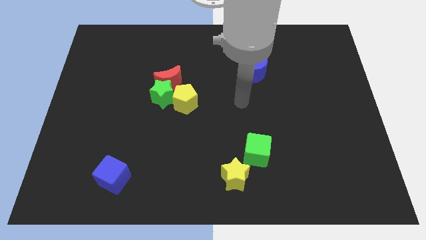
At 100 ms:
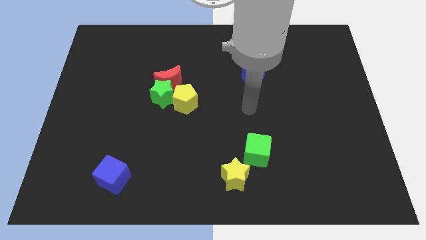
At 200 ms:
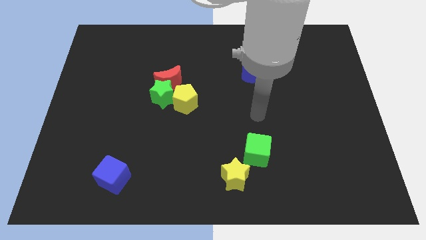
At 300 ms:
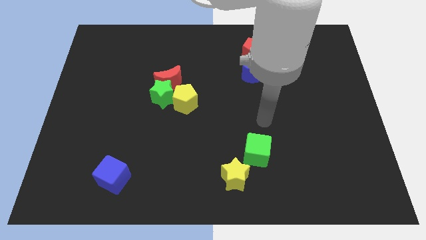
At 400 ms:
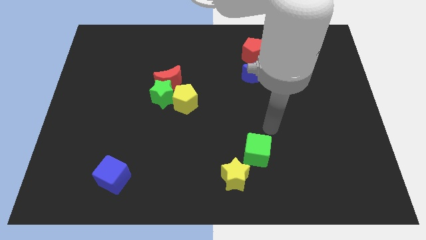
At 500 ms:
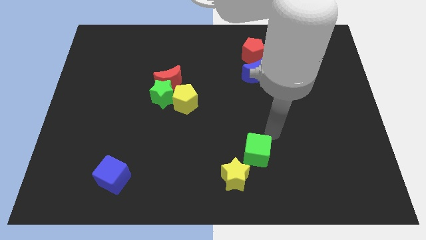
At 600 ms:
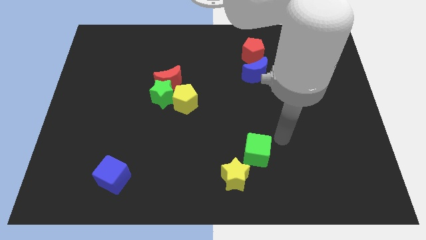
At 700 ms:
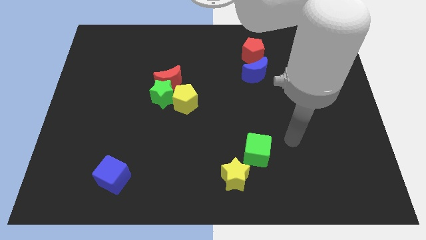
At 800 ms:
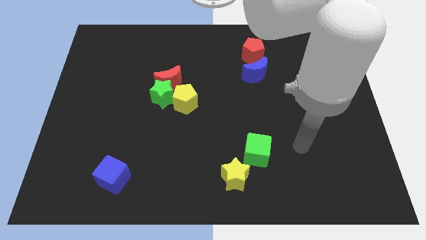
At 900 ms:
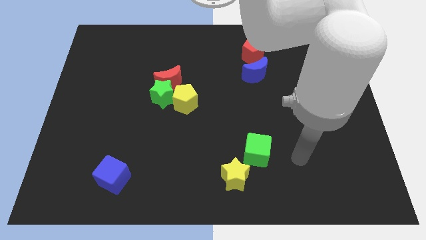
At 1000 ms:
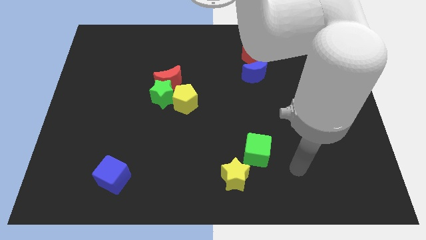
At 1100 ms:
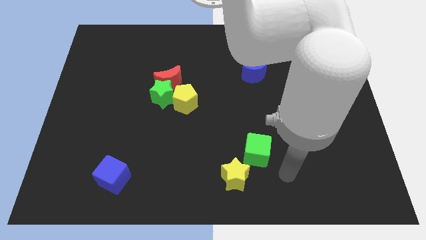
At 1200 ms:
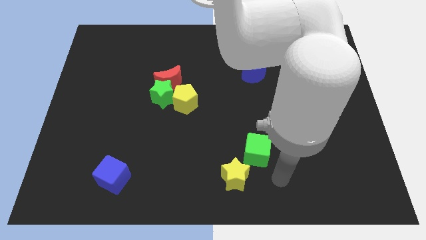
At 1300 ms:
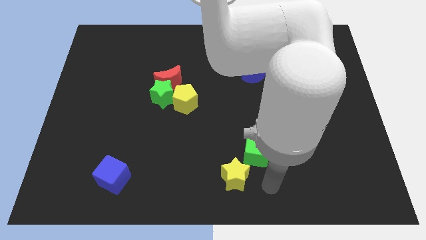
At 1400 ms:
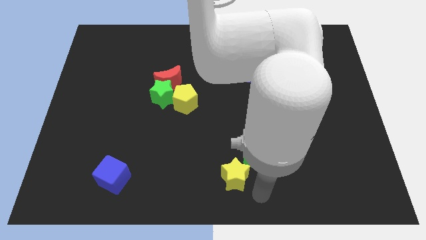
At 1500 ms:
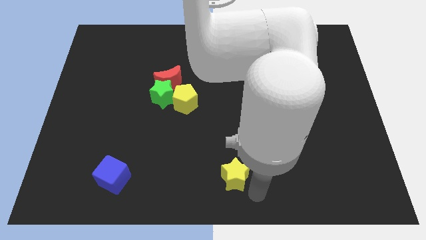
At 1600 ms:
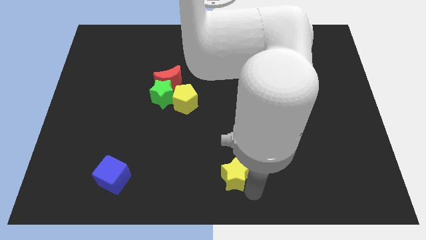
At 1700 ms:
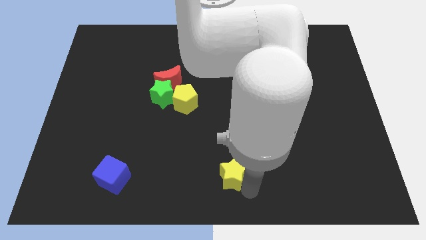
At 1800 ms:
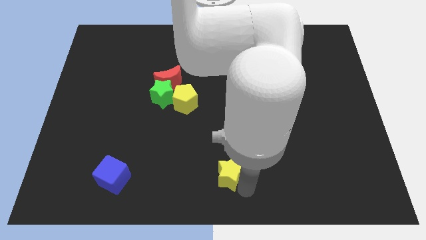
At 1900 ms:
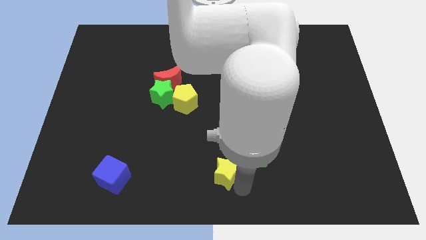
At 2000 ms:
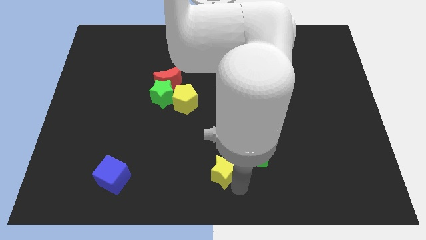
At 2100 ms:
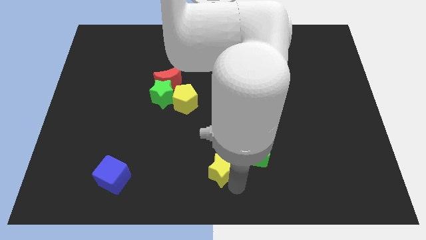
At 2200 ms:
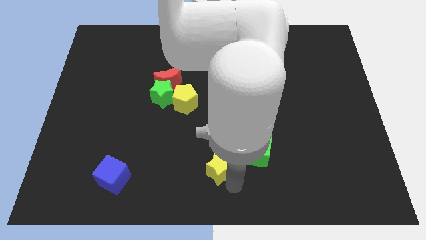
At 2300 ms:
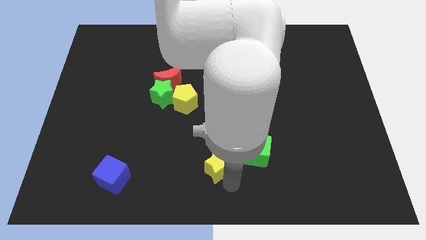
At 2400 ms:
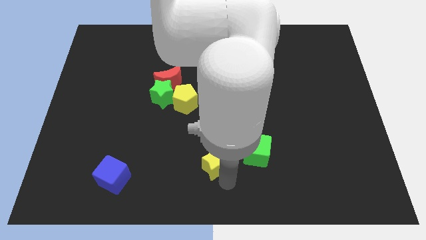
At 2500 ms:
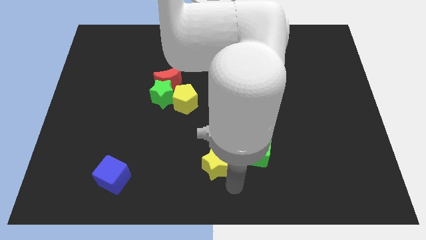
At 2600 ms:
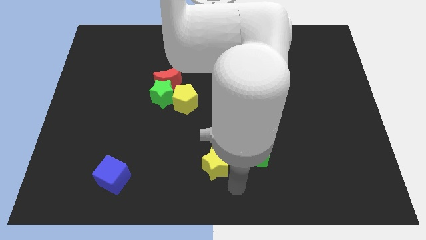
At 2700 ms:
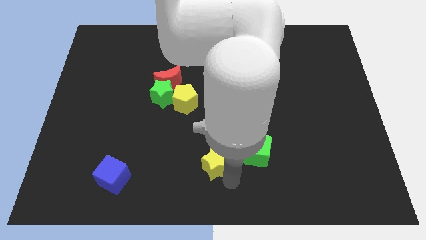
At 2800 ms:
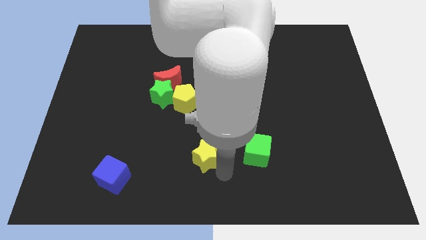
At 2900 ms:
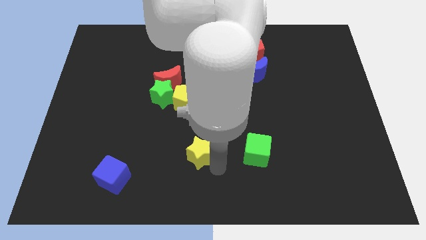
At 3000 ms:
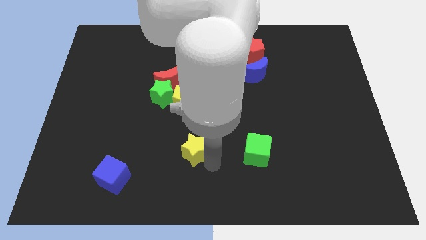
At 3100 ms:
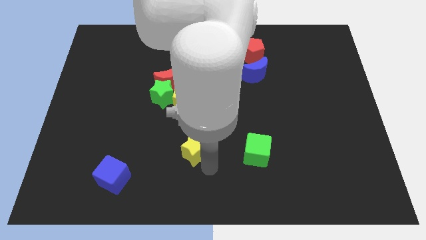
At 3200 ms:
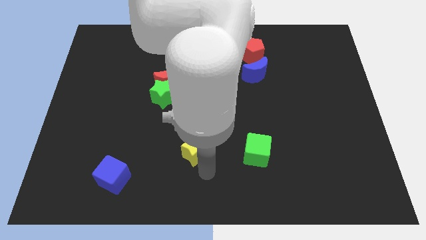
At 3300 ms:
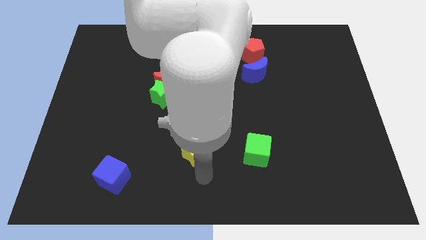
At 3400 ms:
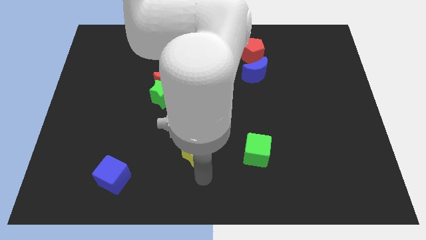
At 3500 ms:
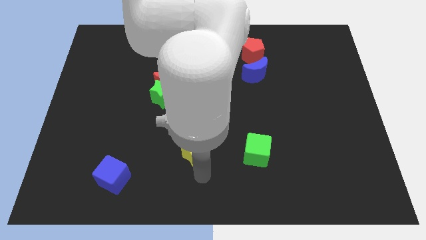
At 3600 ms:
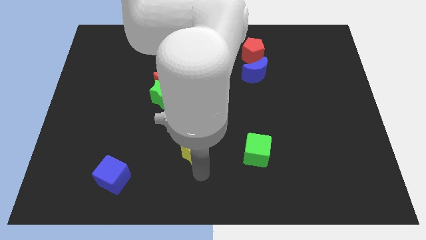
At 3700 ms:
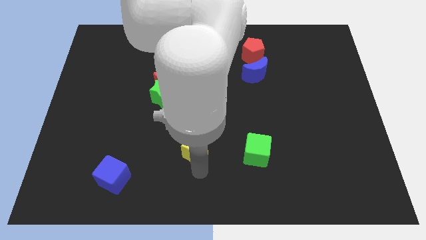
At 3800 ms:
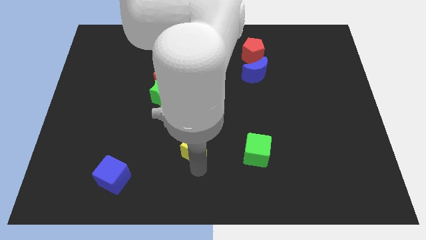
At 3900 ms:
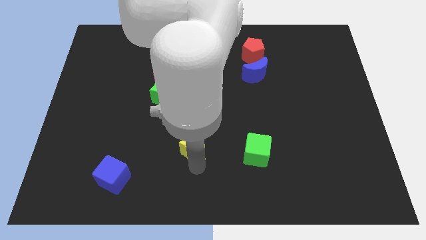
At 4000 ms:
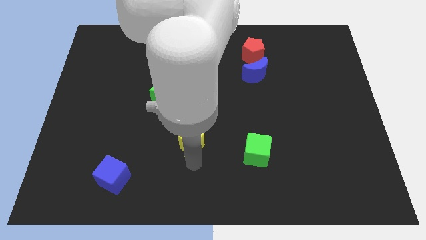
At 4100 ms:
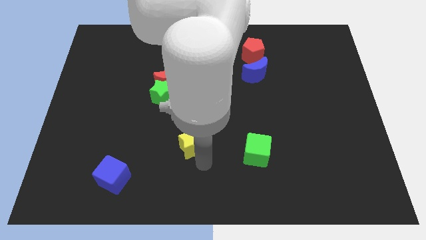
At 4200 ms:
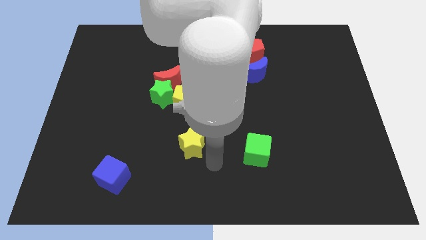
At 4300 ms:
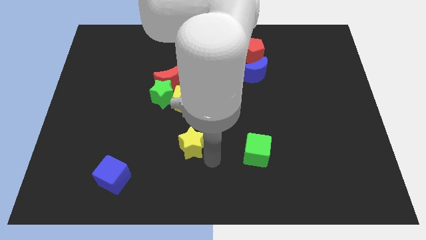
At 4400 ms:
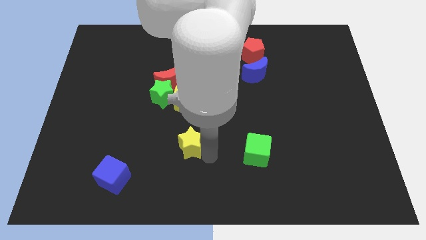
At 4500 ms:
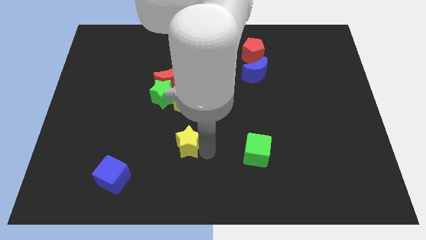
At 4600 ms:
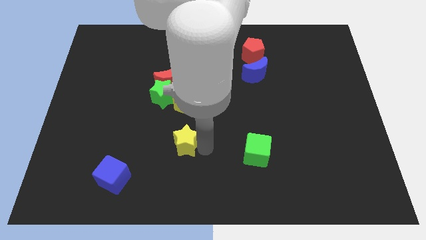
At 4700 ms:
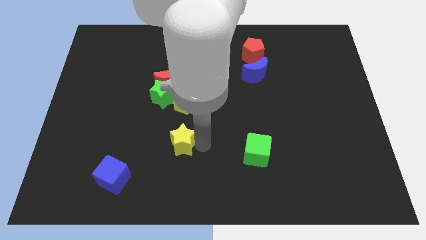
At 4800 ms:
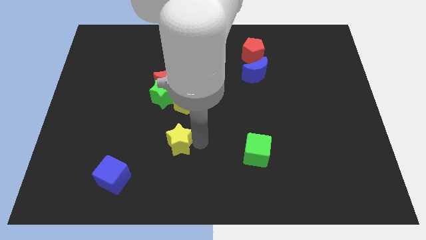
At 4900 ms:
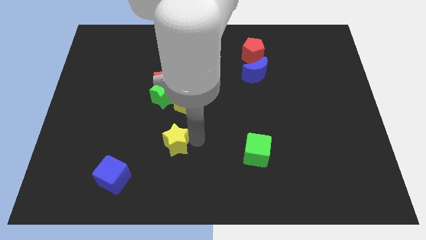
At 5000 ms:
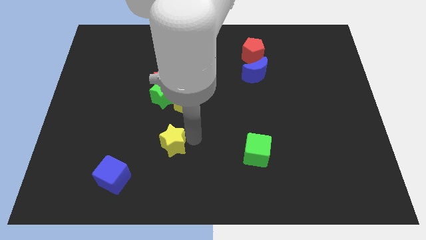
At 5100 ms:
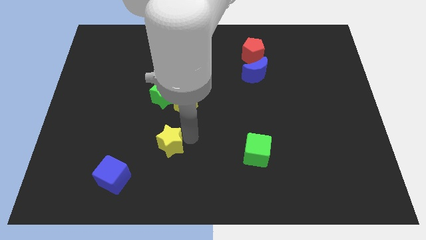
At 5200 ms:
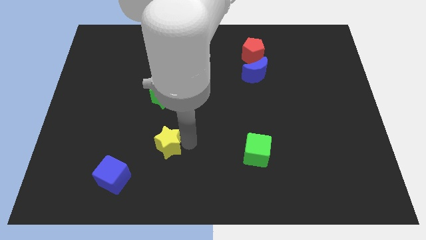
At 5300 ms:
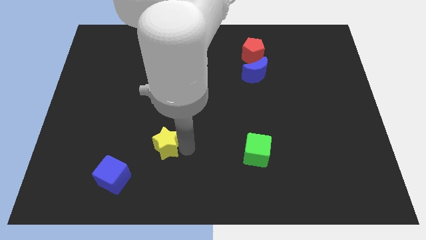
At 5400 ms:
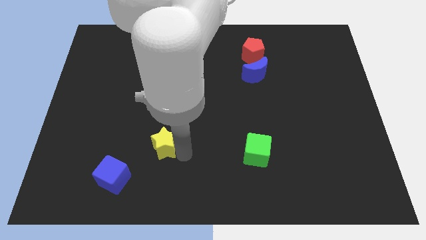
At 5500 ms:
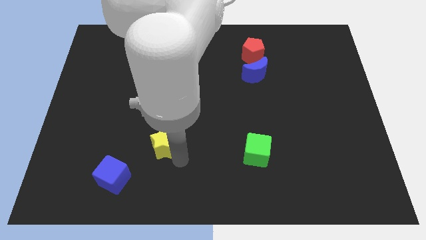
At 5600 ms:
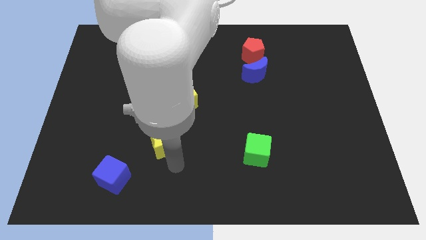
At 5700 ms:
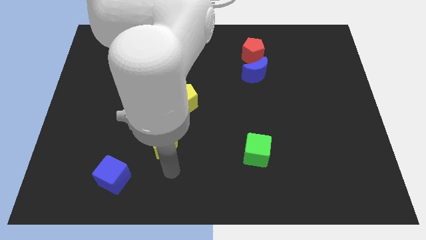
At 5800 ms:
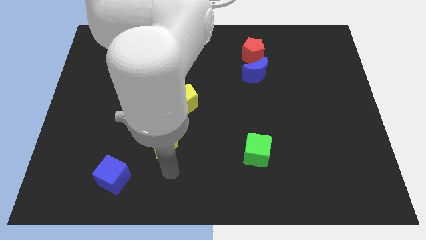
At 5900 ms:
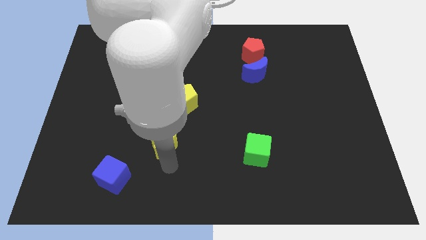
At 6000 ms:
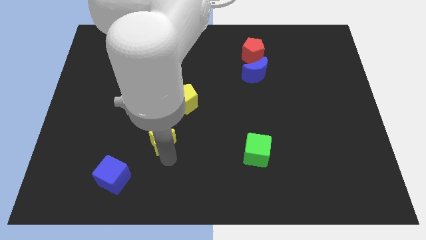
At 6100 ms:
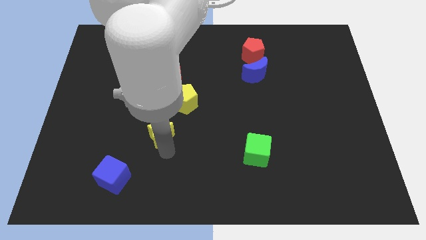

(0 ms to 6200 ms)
move the yellow star to the bottom left side of the yellow pentagon

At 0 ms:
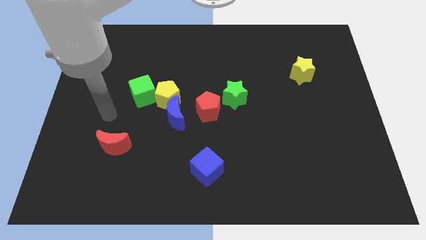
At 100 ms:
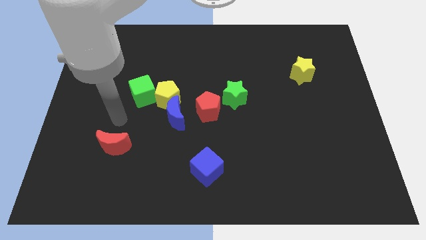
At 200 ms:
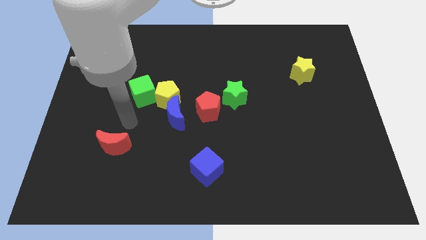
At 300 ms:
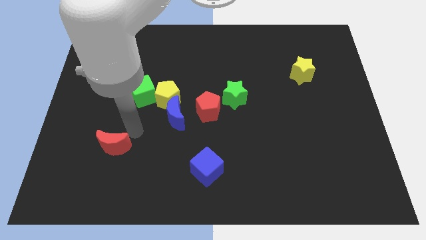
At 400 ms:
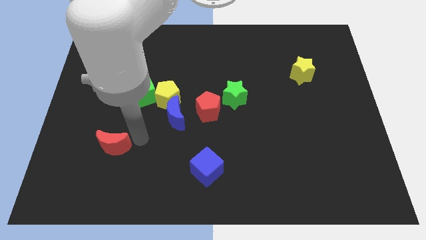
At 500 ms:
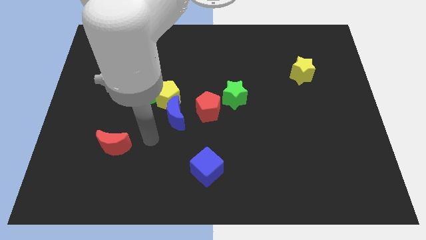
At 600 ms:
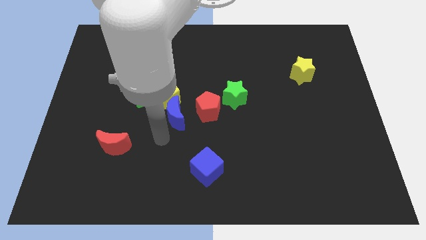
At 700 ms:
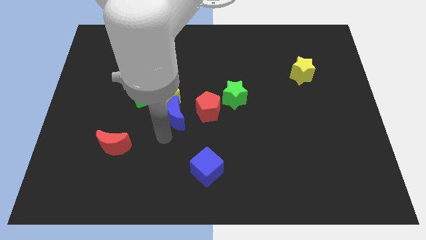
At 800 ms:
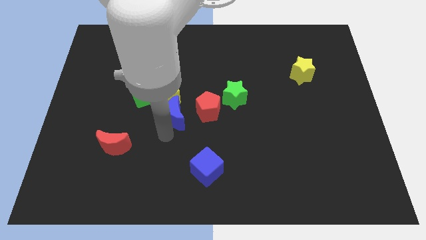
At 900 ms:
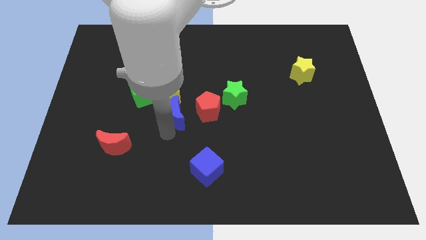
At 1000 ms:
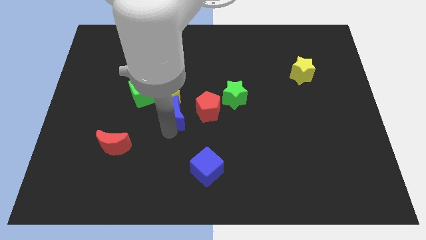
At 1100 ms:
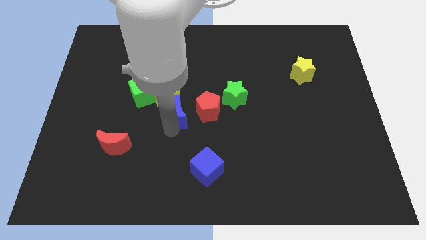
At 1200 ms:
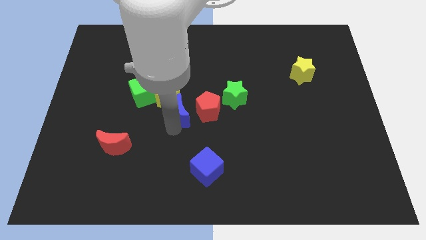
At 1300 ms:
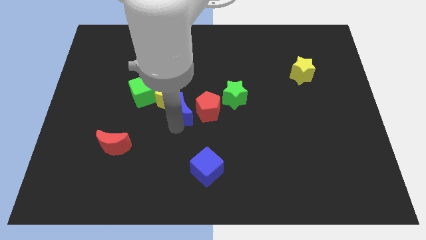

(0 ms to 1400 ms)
move the blue moon diagonally up and to the left of the red pentagon
